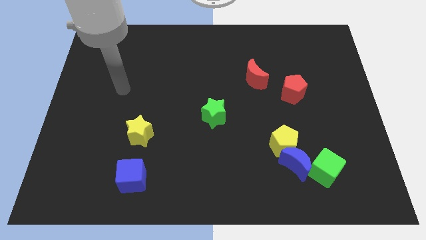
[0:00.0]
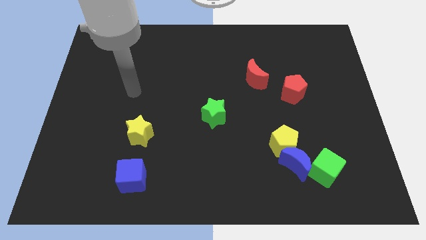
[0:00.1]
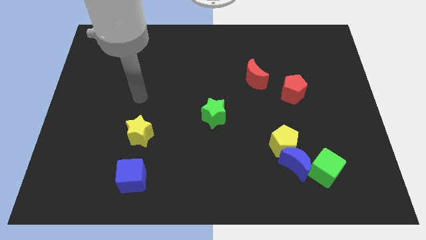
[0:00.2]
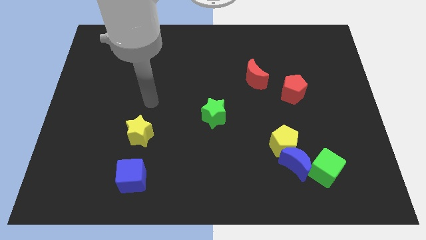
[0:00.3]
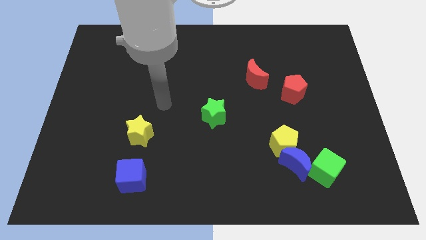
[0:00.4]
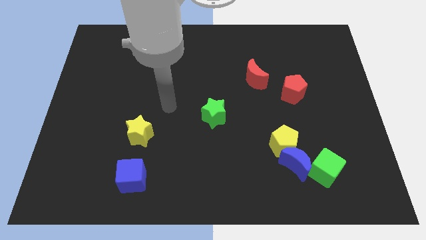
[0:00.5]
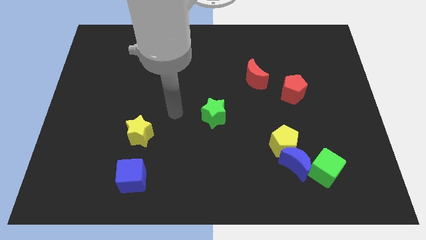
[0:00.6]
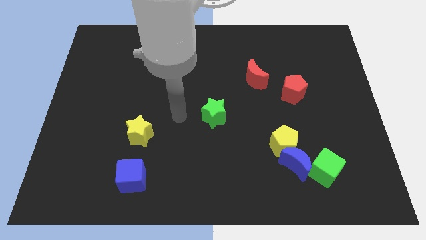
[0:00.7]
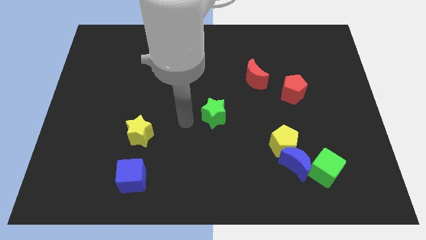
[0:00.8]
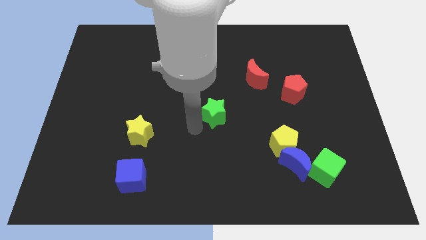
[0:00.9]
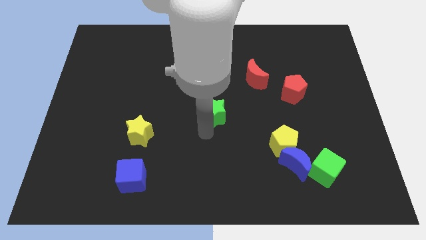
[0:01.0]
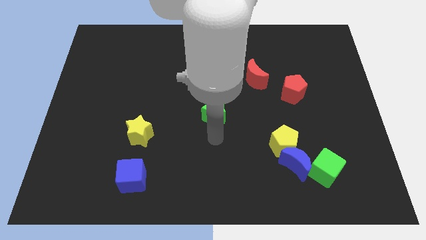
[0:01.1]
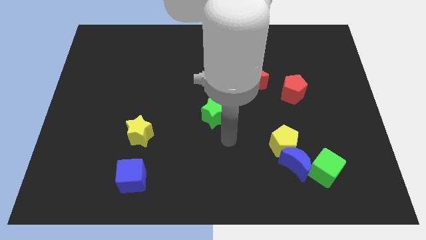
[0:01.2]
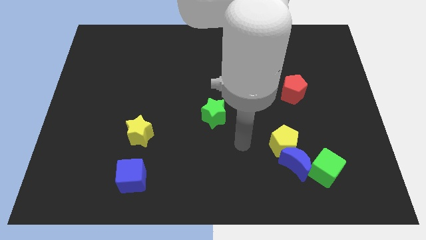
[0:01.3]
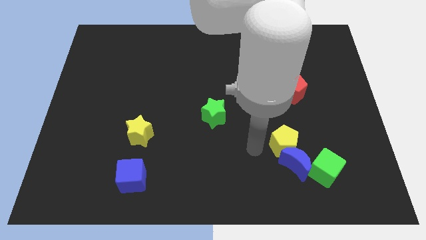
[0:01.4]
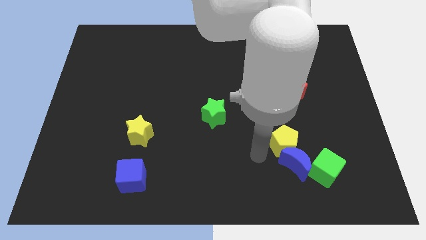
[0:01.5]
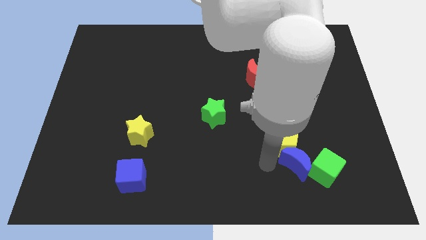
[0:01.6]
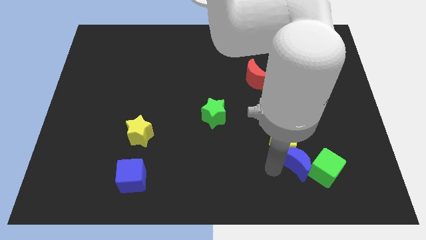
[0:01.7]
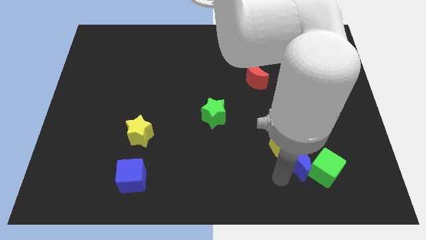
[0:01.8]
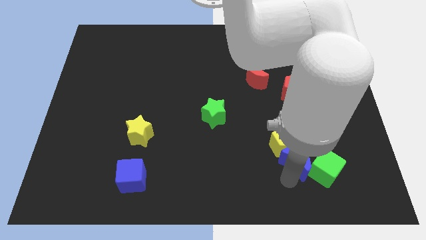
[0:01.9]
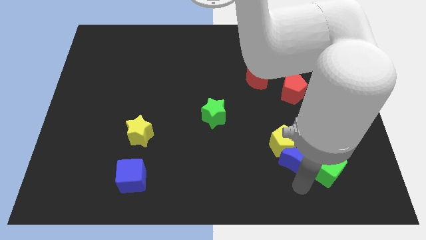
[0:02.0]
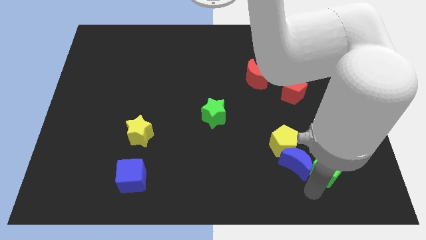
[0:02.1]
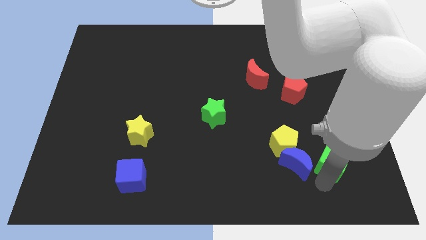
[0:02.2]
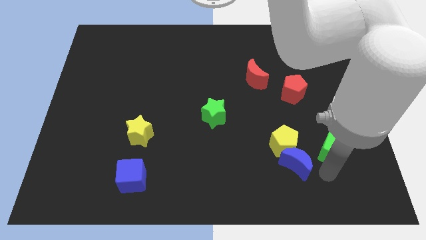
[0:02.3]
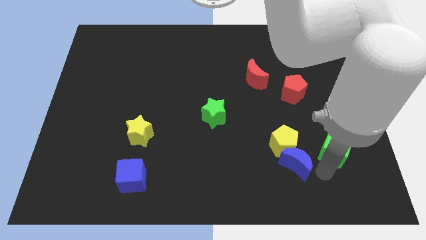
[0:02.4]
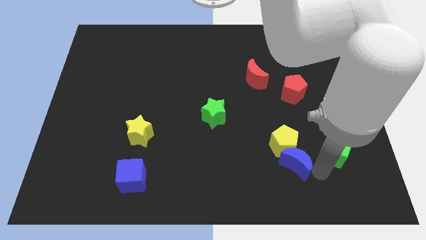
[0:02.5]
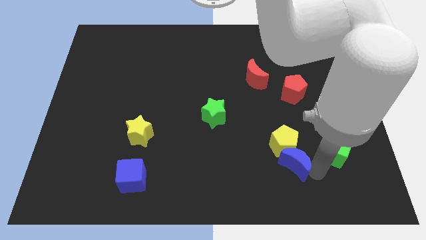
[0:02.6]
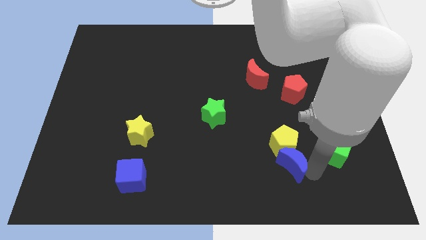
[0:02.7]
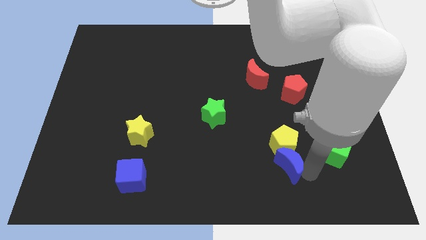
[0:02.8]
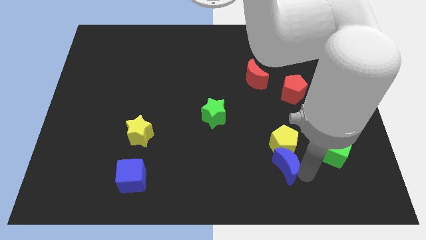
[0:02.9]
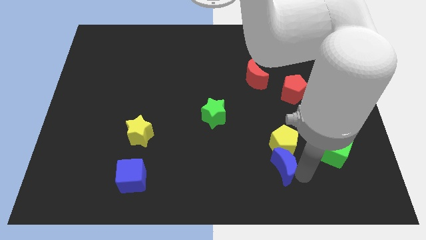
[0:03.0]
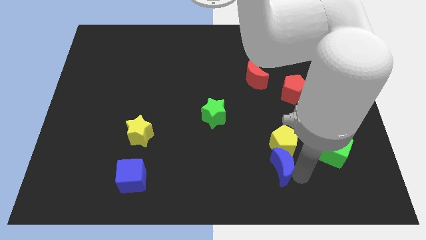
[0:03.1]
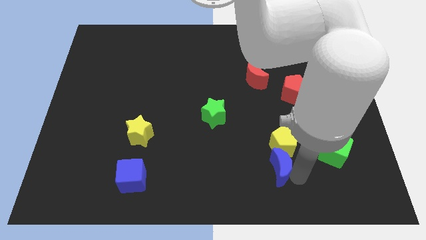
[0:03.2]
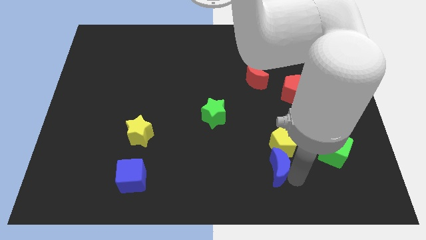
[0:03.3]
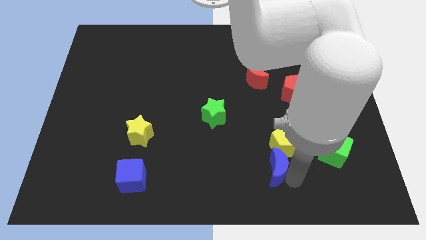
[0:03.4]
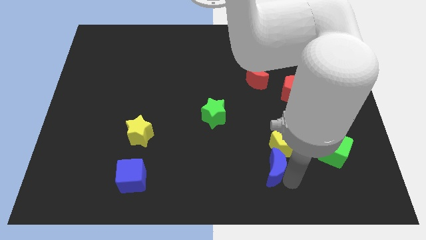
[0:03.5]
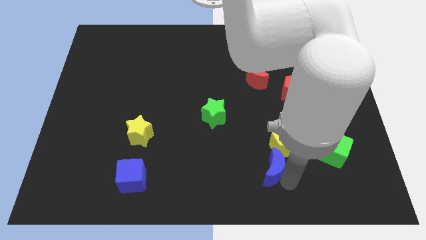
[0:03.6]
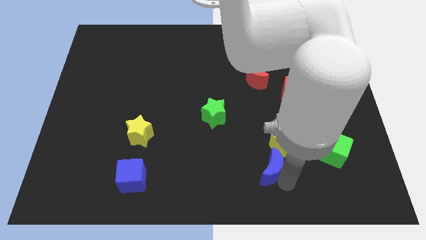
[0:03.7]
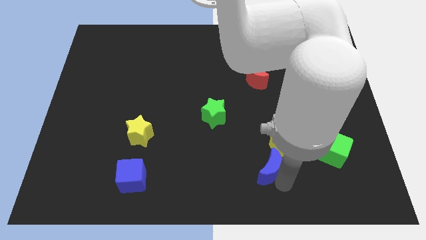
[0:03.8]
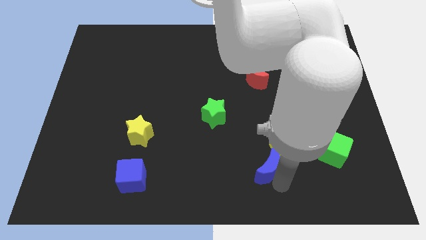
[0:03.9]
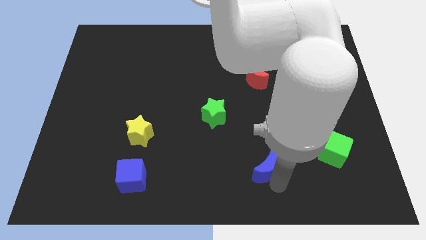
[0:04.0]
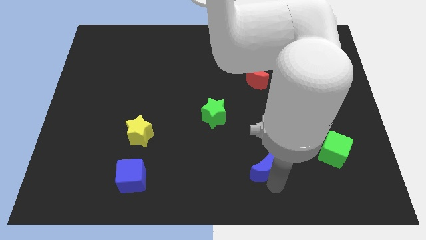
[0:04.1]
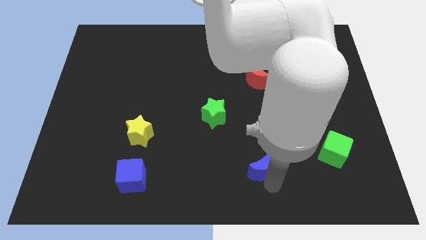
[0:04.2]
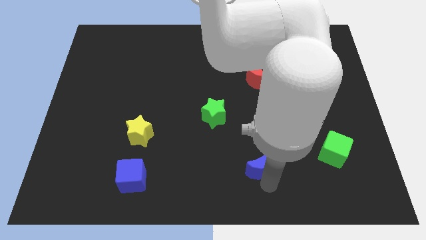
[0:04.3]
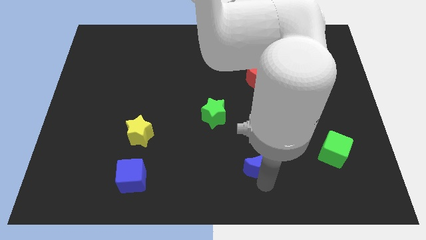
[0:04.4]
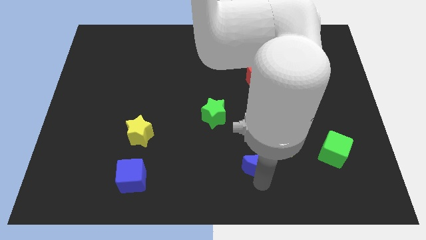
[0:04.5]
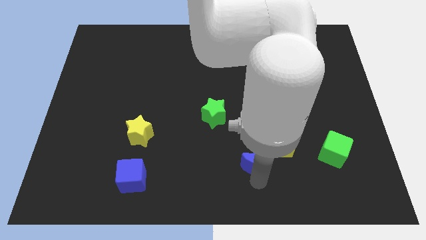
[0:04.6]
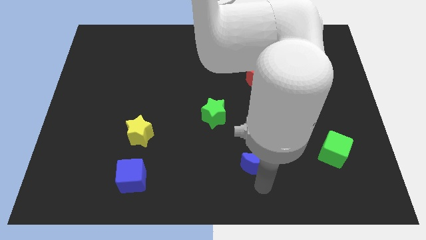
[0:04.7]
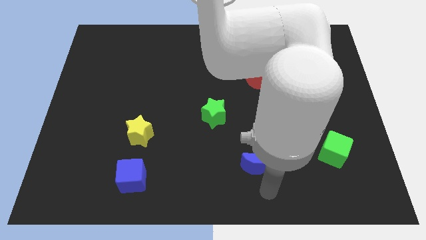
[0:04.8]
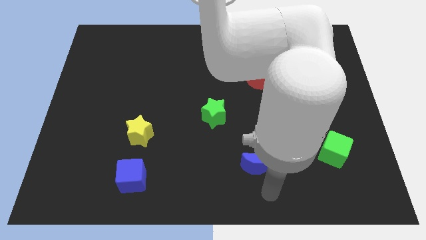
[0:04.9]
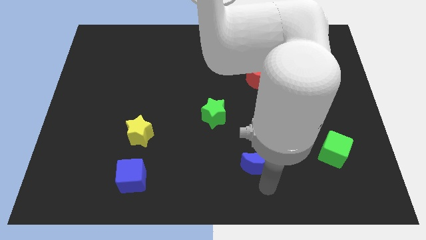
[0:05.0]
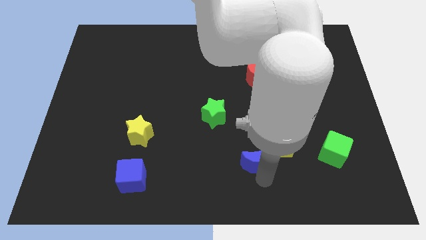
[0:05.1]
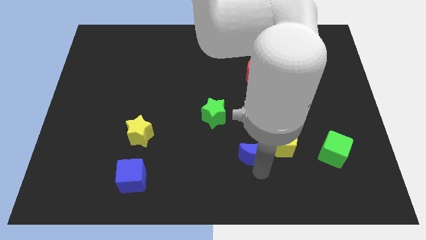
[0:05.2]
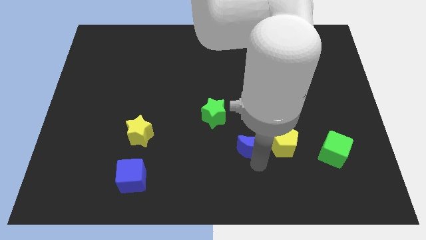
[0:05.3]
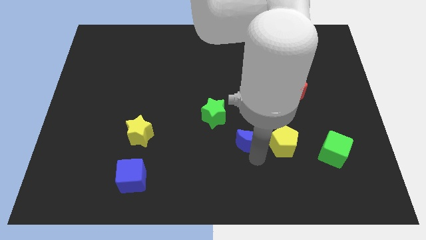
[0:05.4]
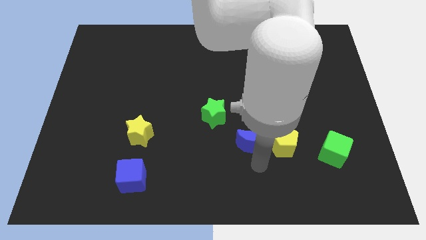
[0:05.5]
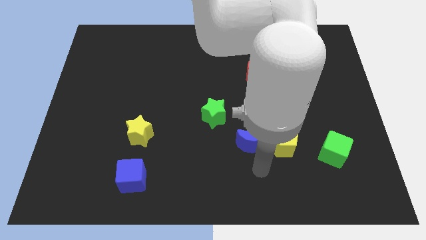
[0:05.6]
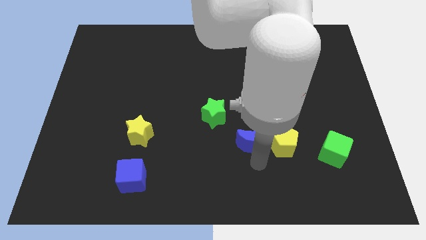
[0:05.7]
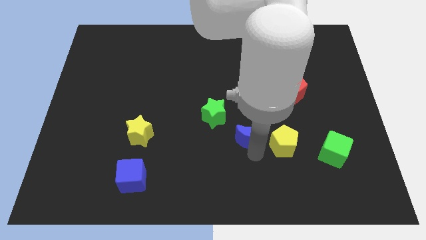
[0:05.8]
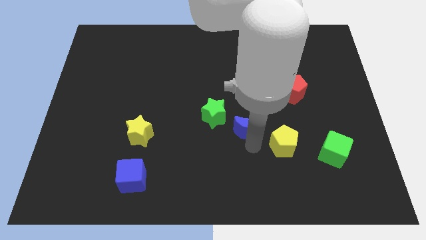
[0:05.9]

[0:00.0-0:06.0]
put the blue moon to the center

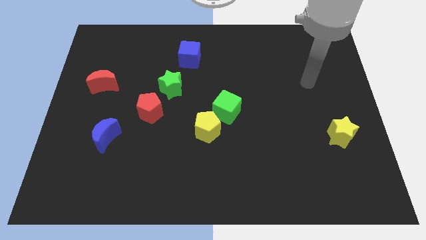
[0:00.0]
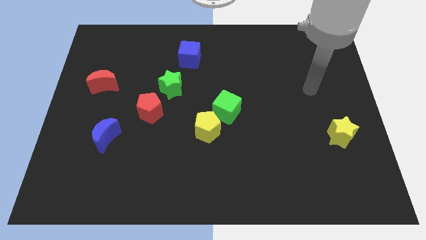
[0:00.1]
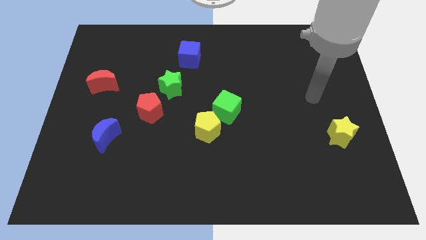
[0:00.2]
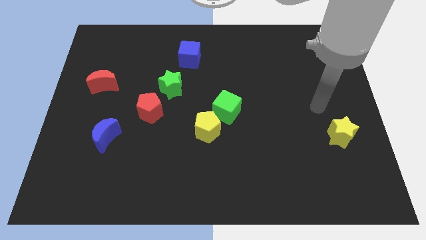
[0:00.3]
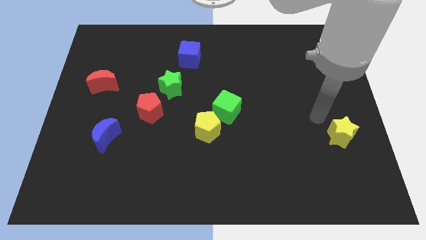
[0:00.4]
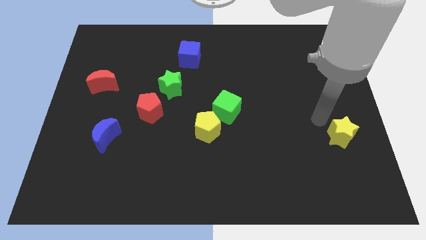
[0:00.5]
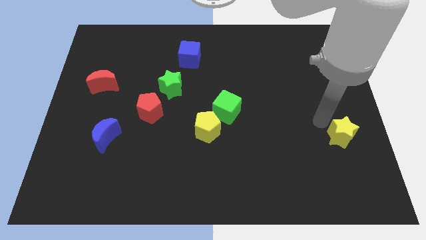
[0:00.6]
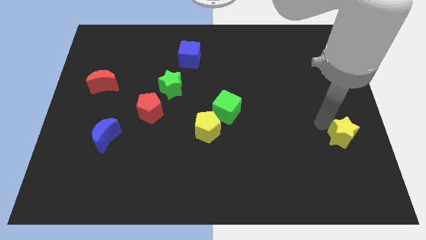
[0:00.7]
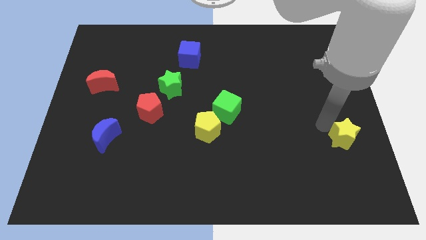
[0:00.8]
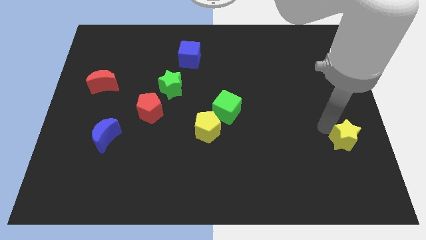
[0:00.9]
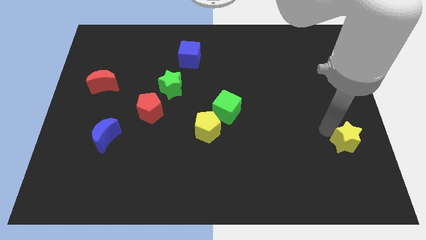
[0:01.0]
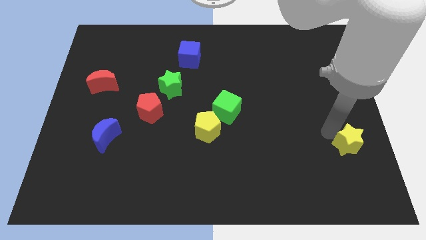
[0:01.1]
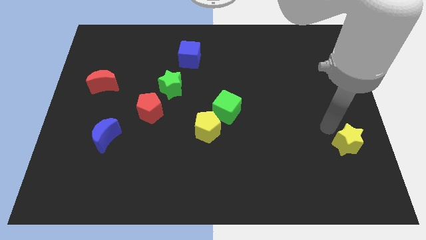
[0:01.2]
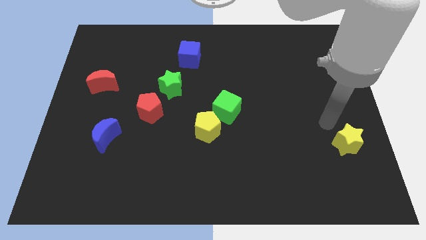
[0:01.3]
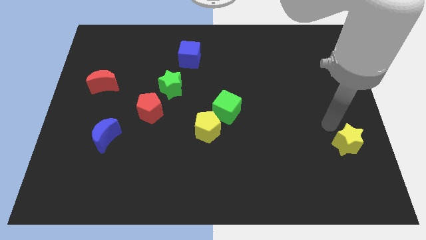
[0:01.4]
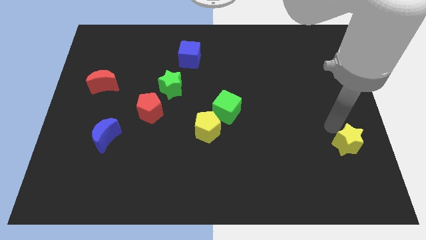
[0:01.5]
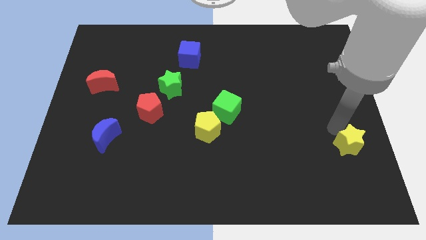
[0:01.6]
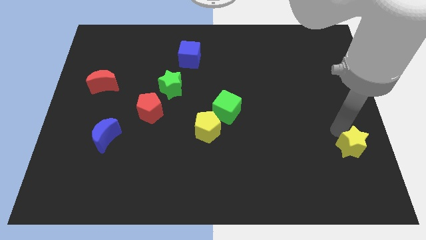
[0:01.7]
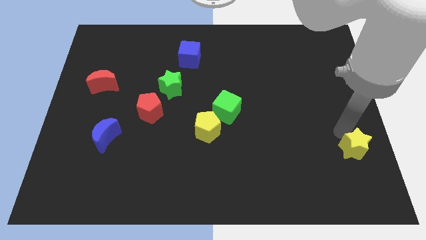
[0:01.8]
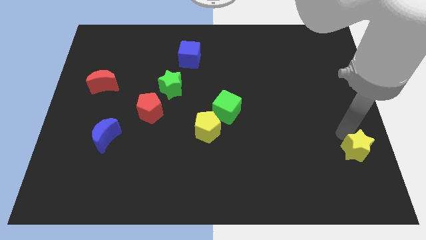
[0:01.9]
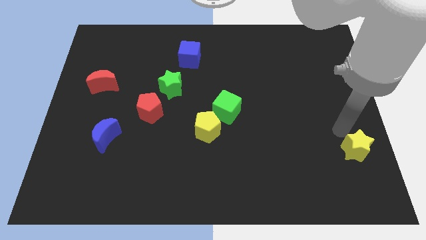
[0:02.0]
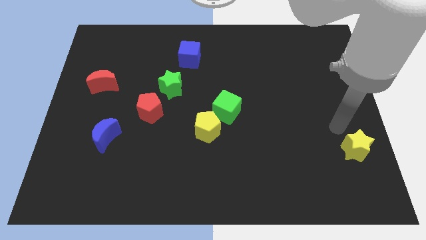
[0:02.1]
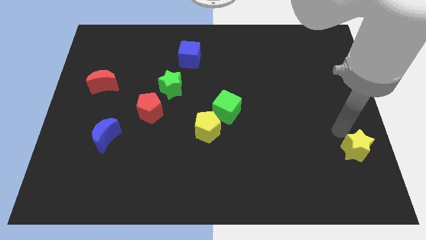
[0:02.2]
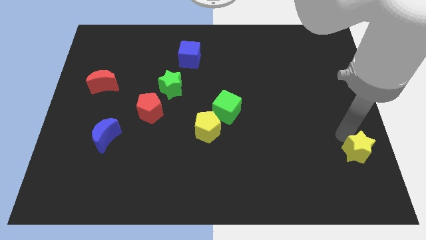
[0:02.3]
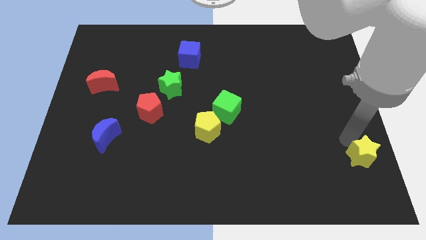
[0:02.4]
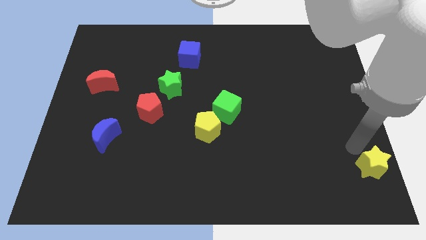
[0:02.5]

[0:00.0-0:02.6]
put the yellow star to the lower right corner
